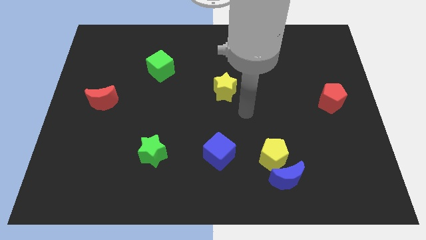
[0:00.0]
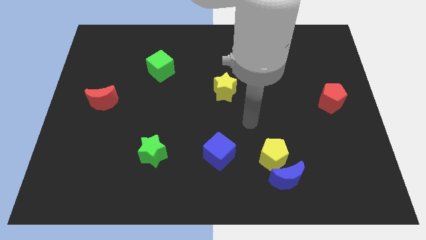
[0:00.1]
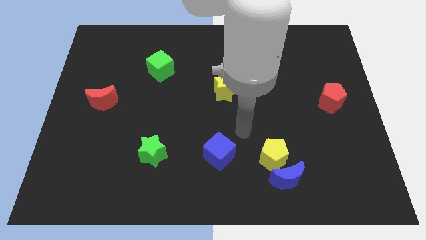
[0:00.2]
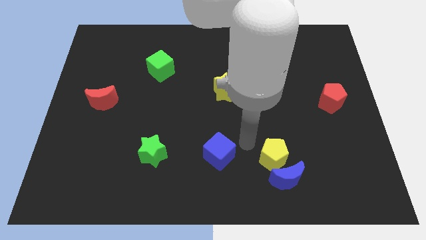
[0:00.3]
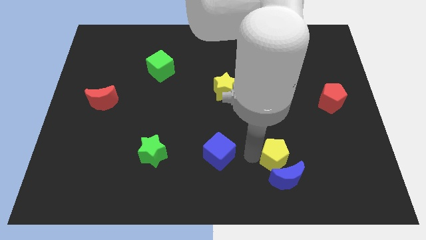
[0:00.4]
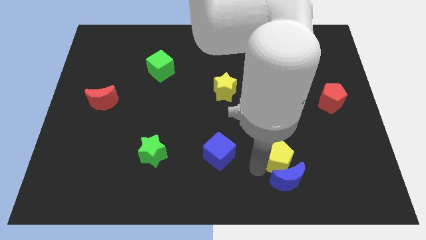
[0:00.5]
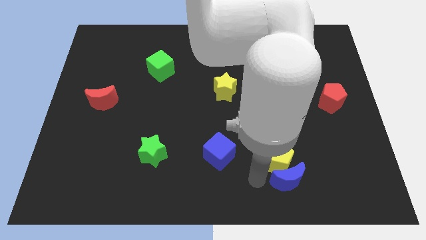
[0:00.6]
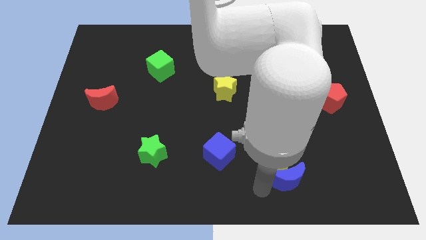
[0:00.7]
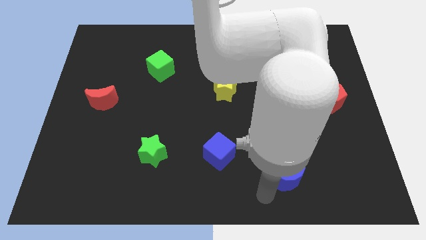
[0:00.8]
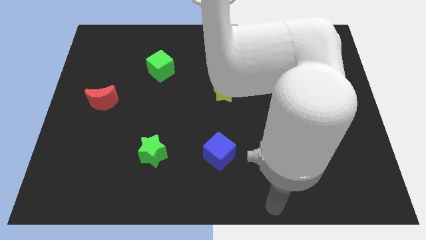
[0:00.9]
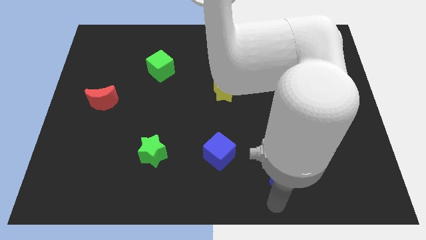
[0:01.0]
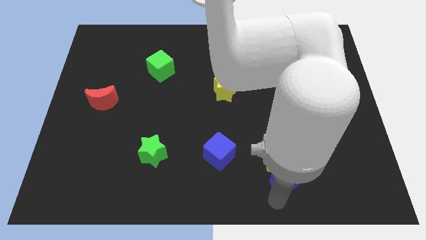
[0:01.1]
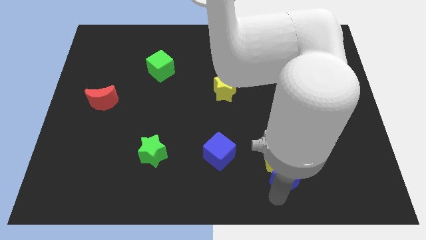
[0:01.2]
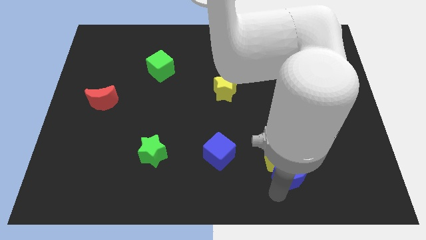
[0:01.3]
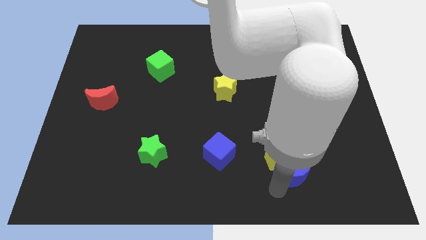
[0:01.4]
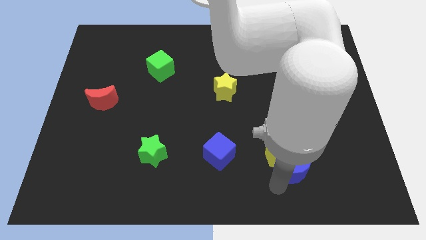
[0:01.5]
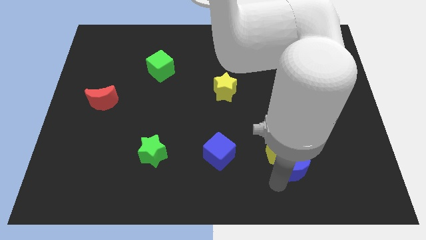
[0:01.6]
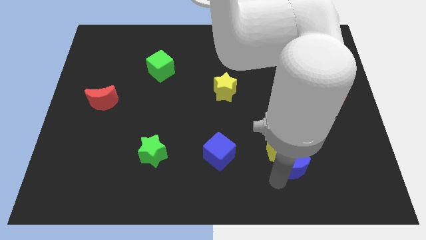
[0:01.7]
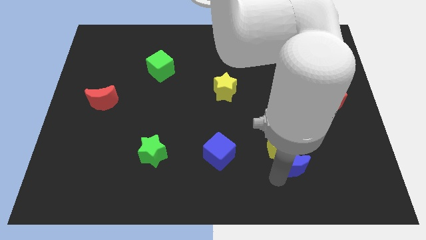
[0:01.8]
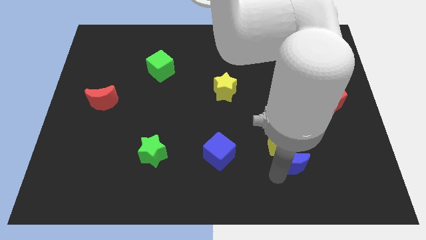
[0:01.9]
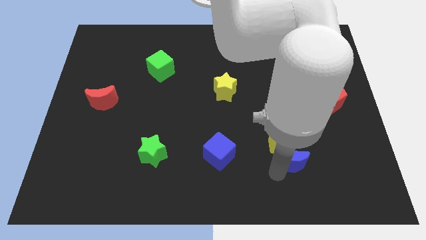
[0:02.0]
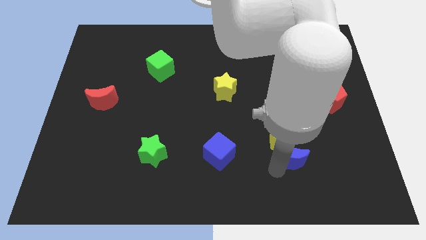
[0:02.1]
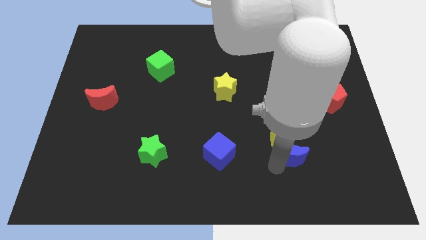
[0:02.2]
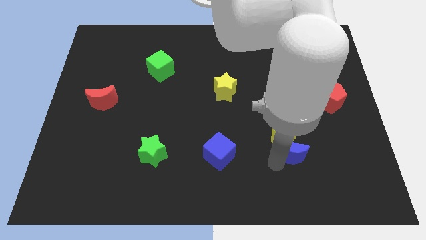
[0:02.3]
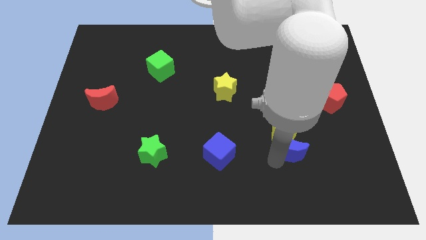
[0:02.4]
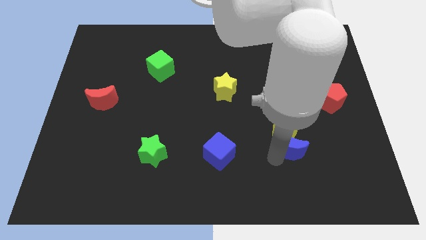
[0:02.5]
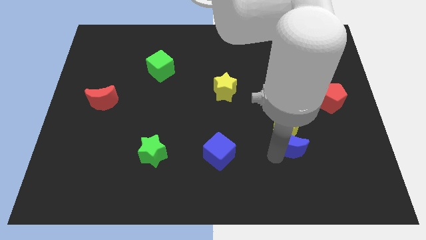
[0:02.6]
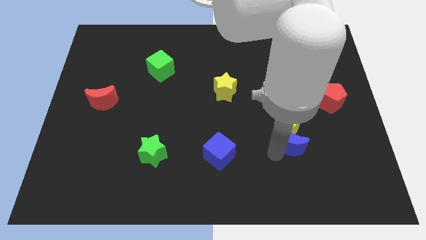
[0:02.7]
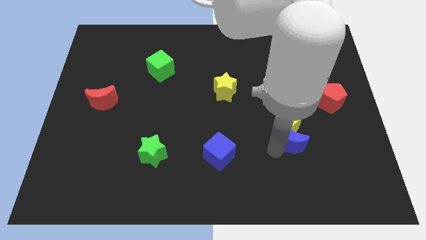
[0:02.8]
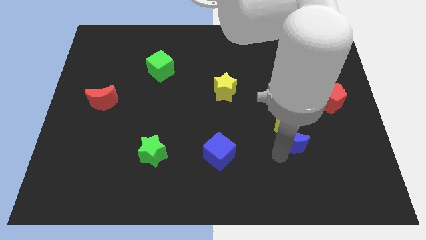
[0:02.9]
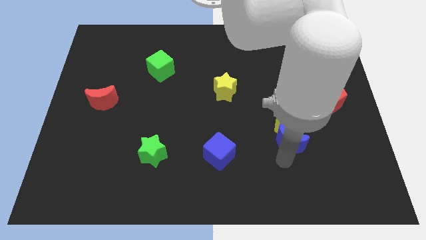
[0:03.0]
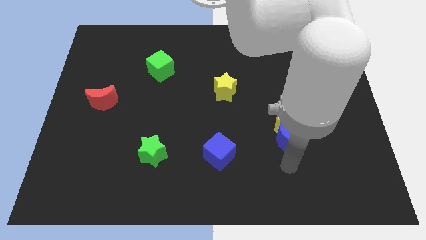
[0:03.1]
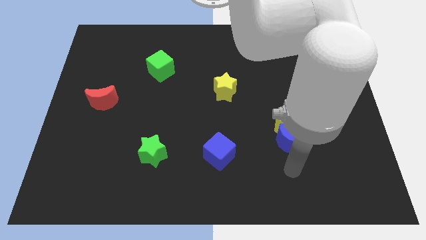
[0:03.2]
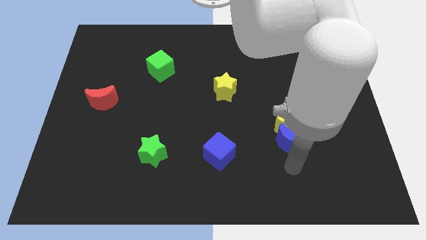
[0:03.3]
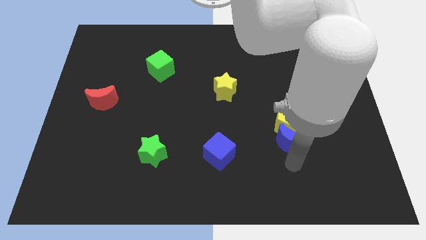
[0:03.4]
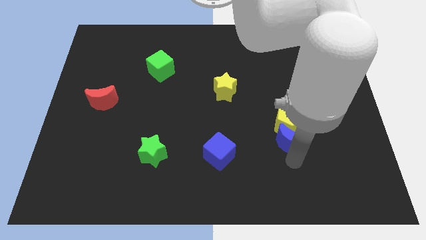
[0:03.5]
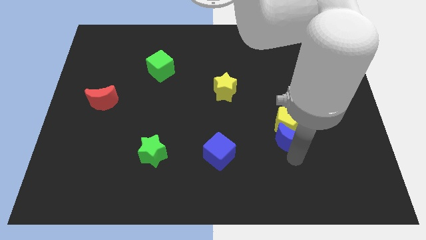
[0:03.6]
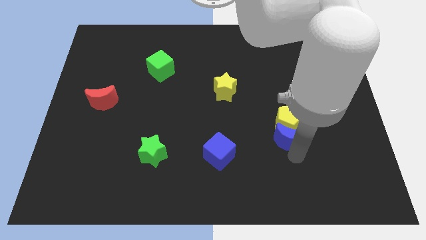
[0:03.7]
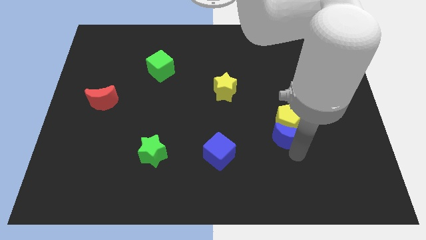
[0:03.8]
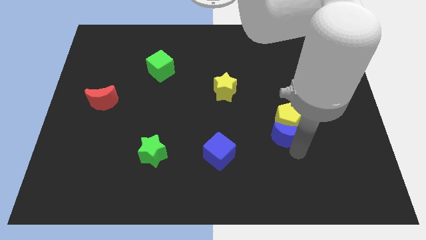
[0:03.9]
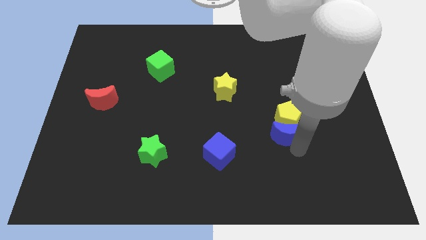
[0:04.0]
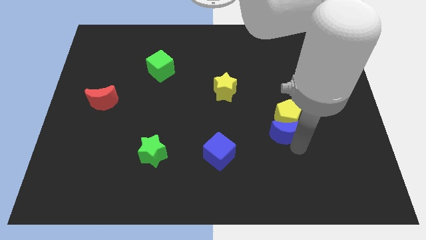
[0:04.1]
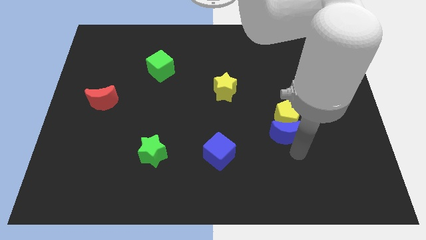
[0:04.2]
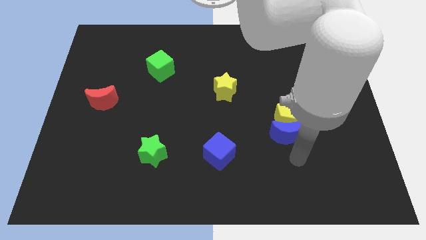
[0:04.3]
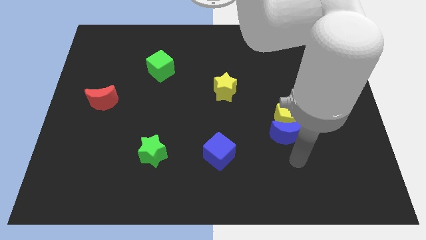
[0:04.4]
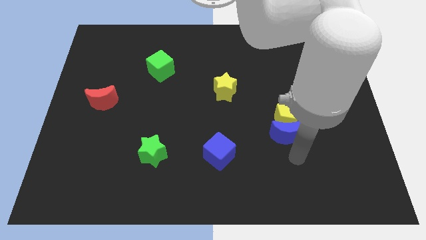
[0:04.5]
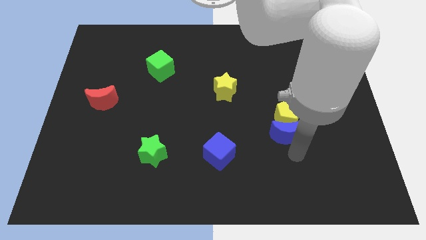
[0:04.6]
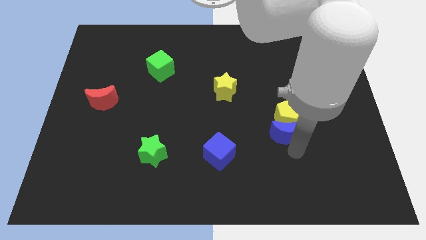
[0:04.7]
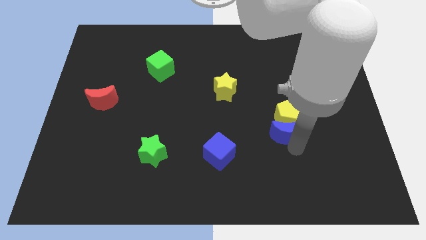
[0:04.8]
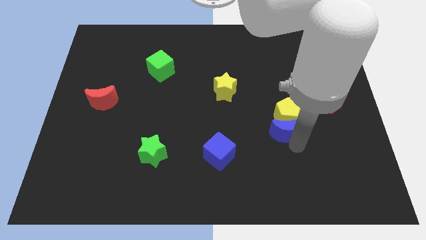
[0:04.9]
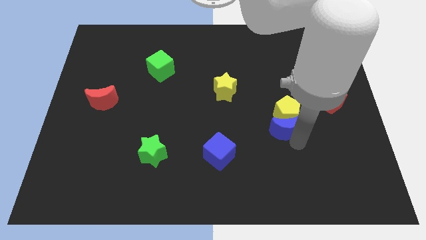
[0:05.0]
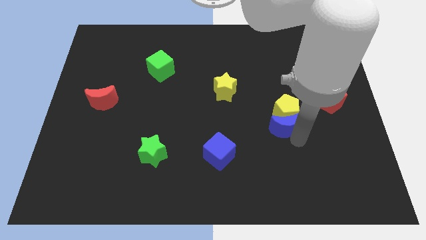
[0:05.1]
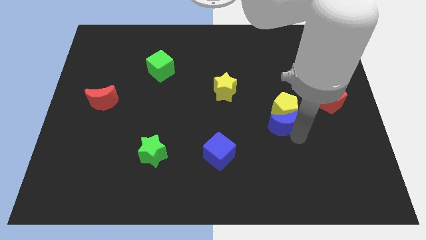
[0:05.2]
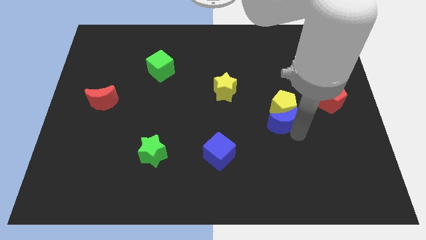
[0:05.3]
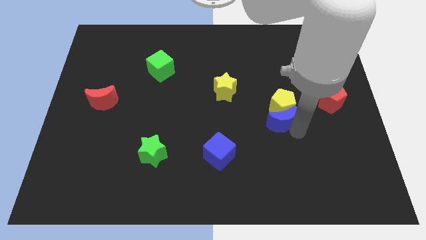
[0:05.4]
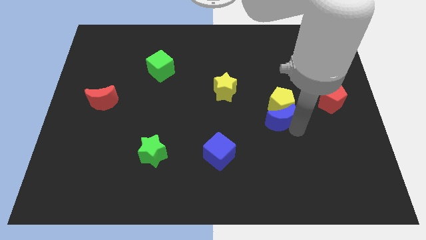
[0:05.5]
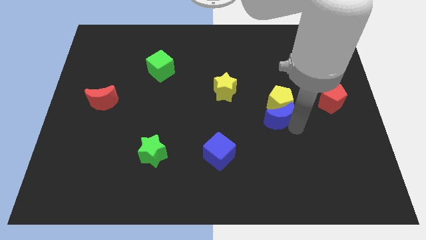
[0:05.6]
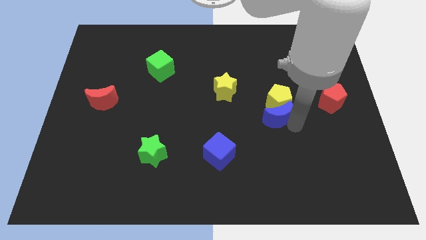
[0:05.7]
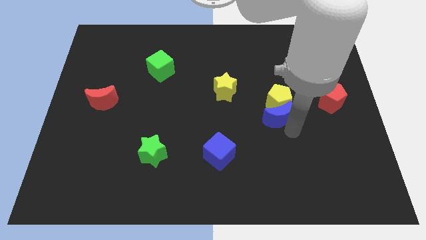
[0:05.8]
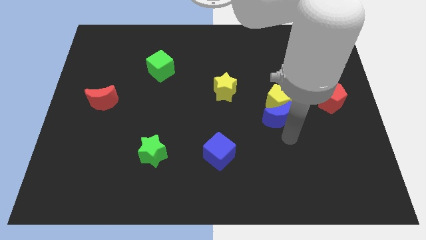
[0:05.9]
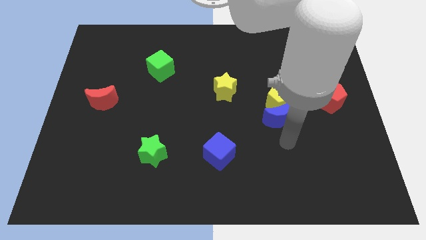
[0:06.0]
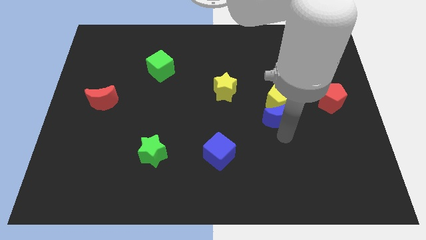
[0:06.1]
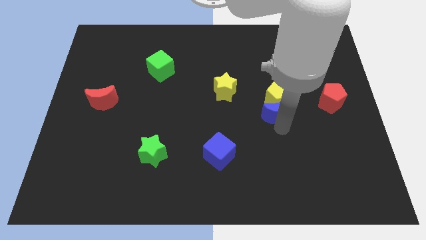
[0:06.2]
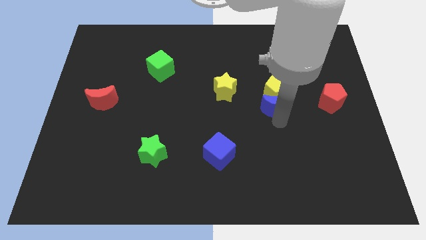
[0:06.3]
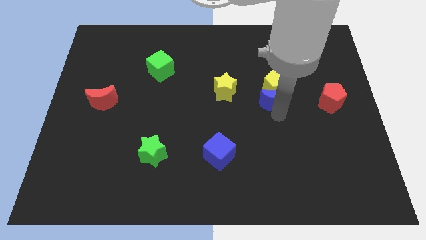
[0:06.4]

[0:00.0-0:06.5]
push the blue moon just right of the yellow star

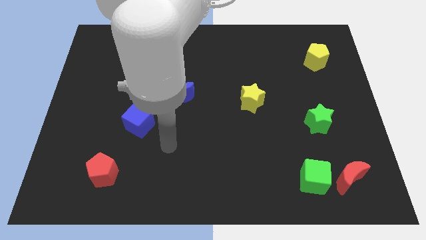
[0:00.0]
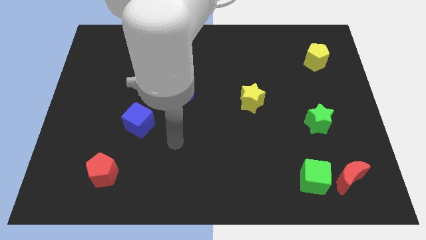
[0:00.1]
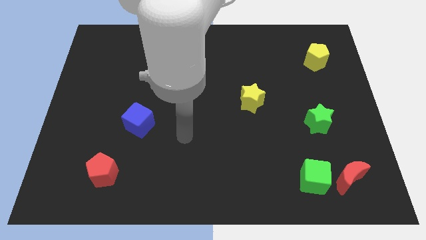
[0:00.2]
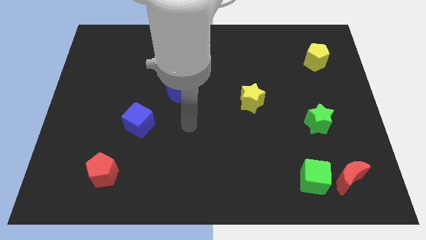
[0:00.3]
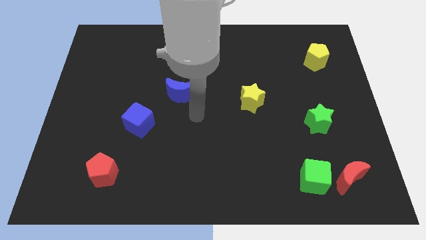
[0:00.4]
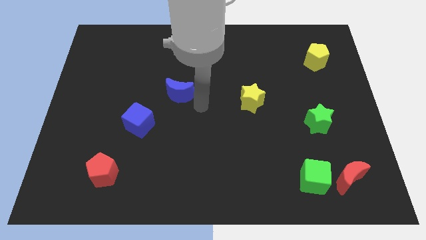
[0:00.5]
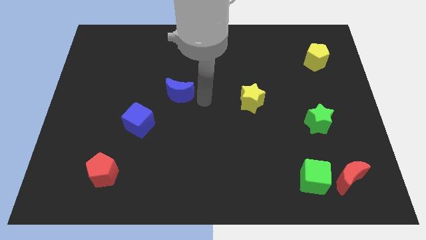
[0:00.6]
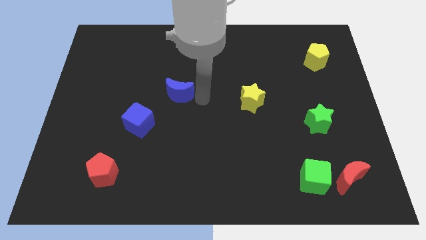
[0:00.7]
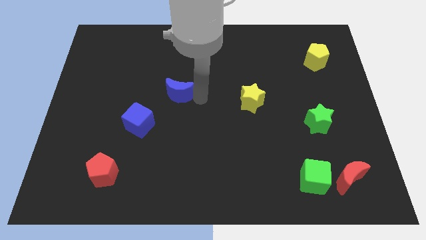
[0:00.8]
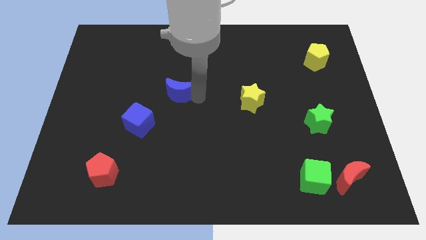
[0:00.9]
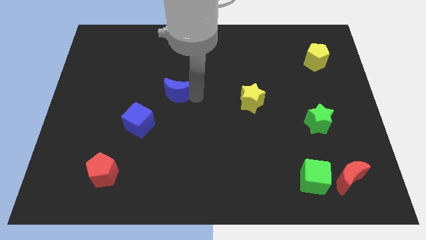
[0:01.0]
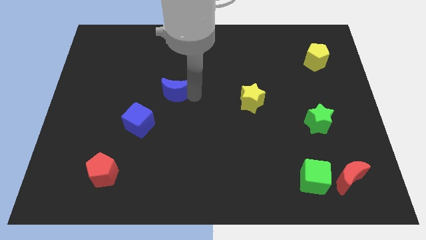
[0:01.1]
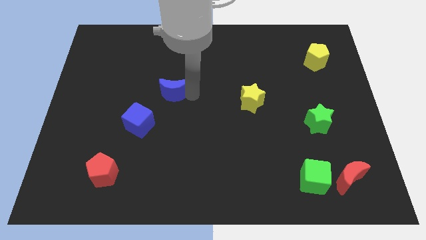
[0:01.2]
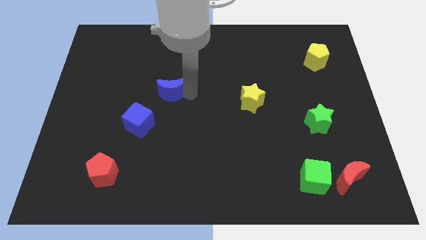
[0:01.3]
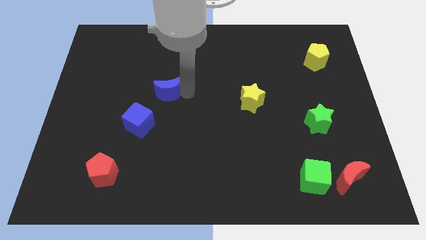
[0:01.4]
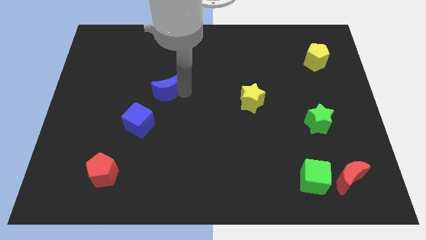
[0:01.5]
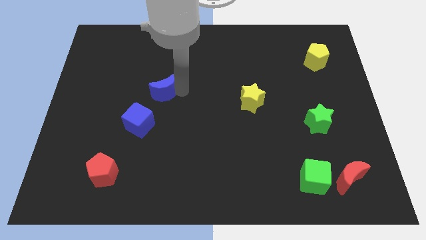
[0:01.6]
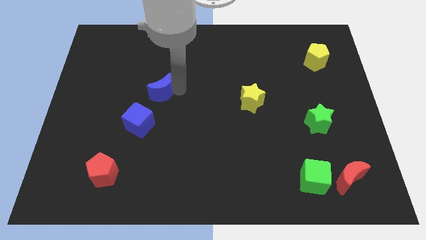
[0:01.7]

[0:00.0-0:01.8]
push the blue moon to the top of the blue cube

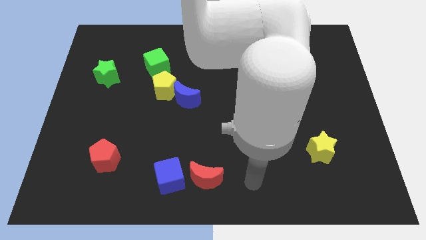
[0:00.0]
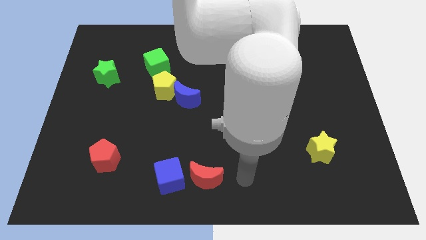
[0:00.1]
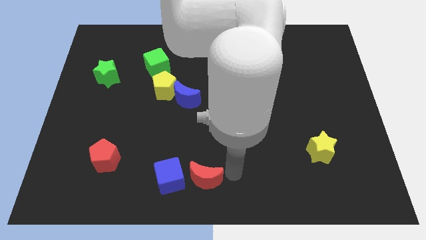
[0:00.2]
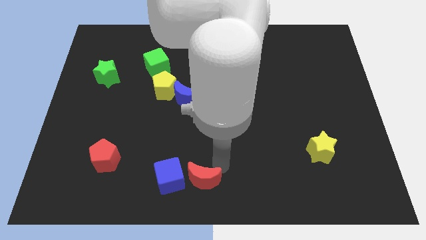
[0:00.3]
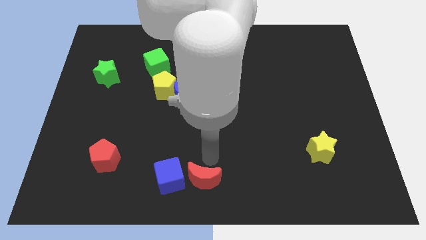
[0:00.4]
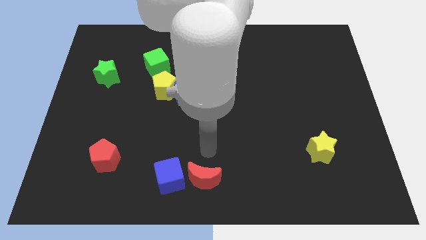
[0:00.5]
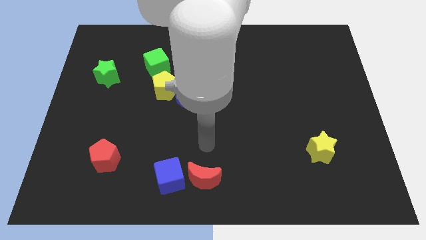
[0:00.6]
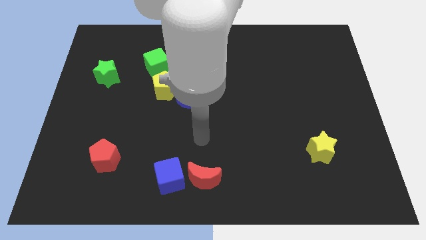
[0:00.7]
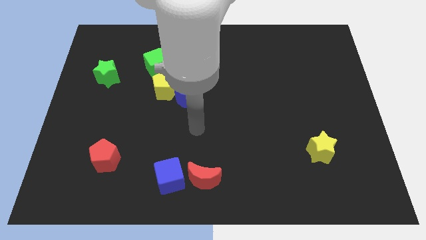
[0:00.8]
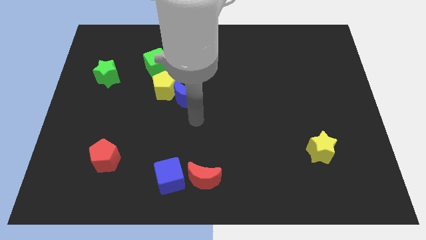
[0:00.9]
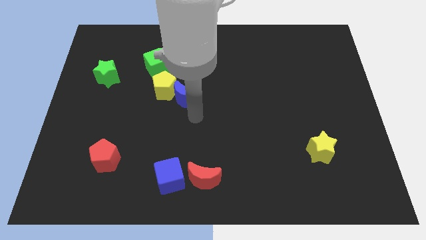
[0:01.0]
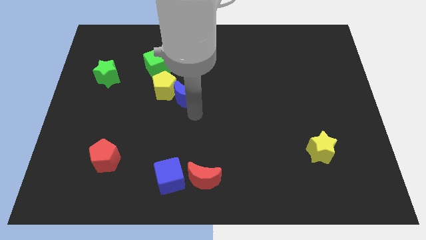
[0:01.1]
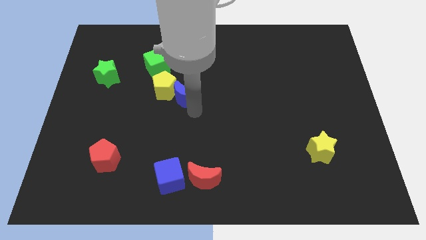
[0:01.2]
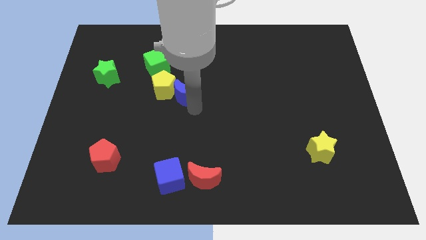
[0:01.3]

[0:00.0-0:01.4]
slide the blue moon to the bottom right side of the green cube
